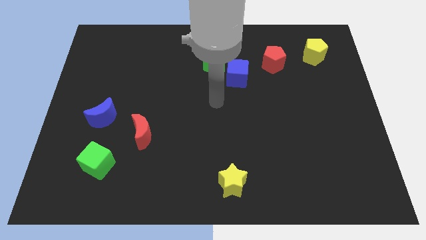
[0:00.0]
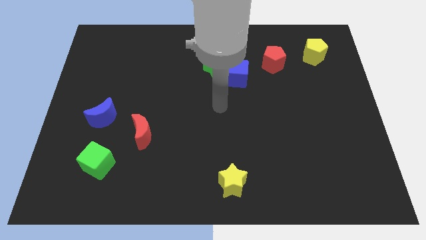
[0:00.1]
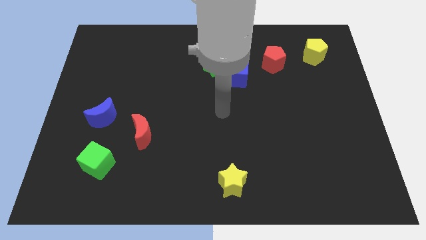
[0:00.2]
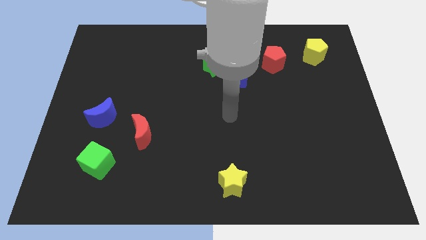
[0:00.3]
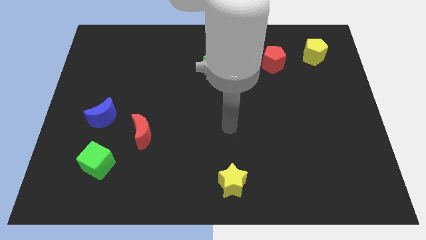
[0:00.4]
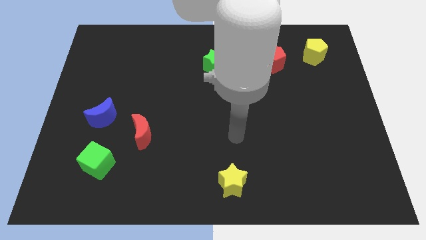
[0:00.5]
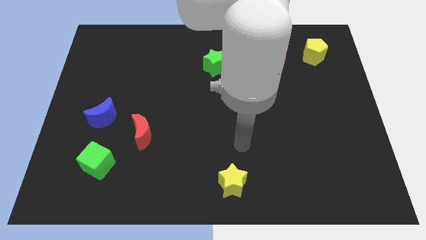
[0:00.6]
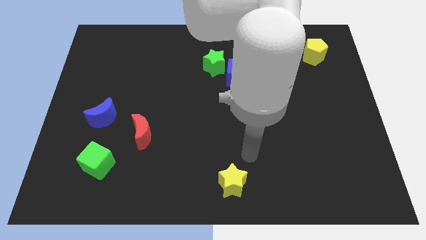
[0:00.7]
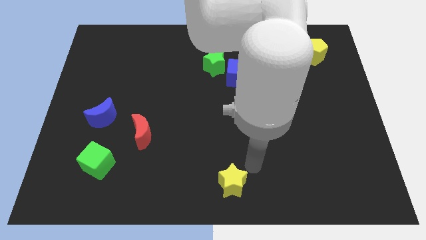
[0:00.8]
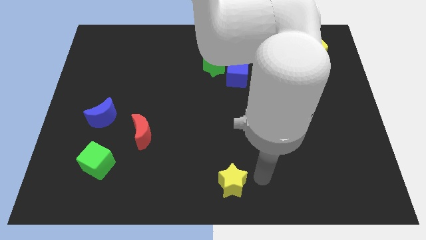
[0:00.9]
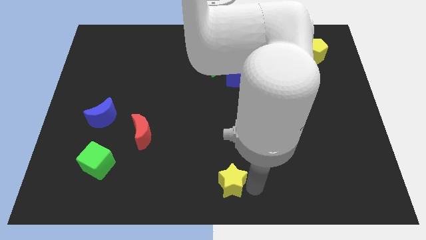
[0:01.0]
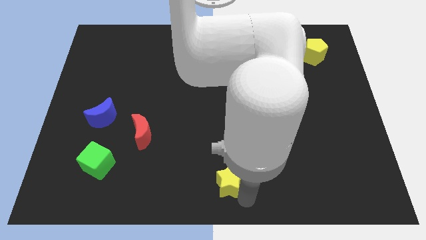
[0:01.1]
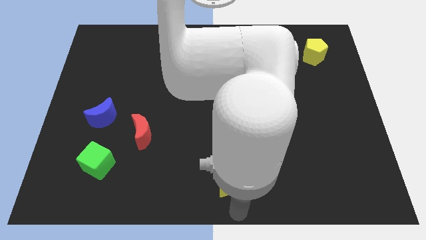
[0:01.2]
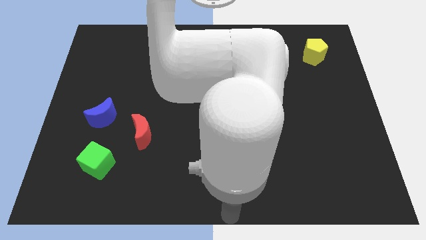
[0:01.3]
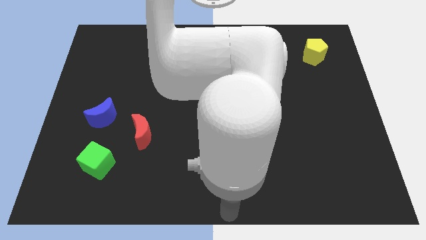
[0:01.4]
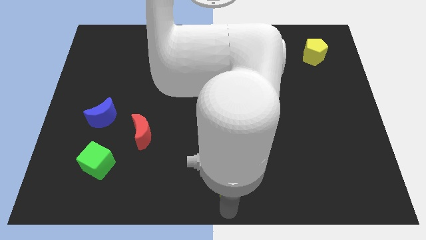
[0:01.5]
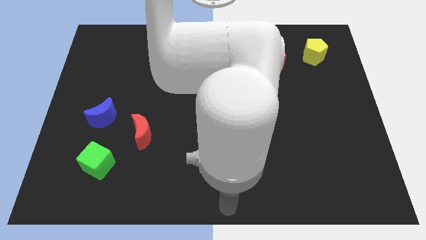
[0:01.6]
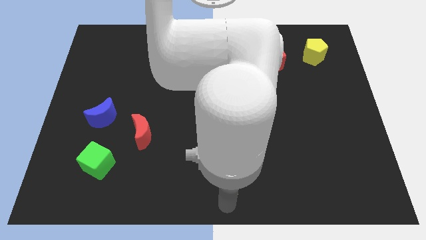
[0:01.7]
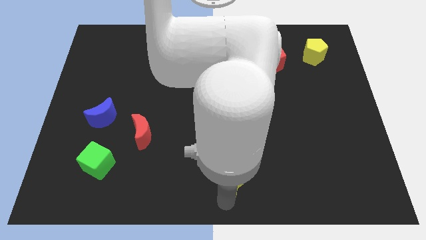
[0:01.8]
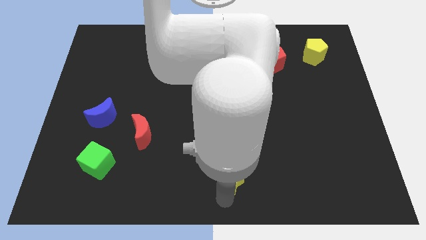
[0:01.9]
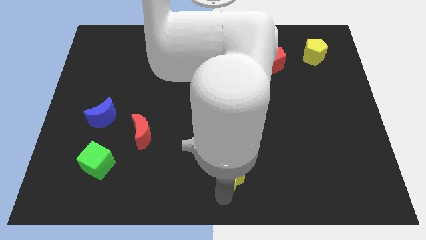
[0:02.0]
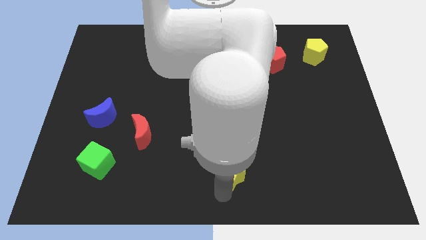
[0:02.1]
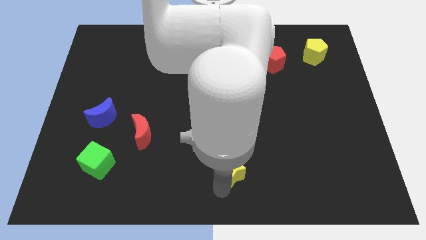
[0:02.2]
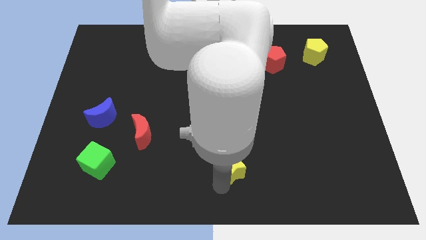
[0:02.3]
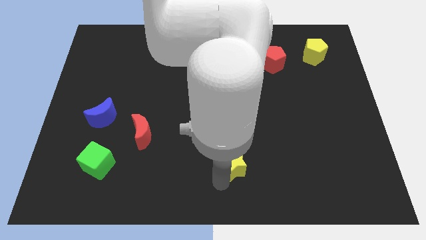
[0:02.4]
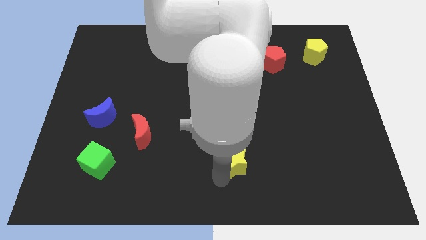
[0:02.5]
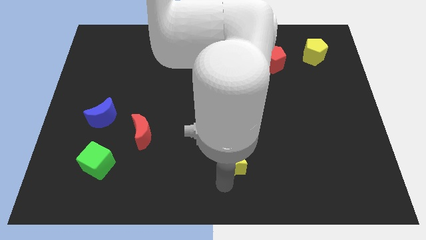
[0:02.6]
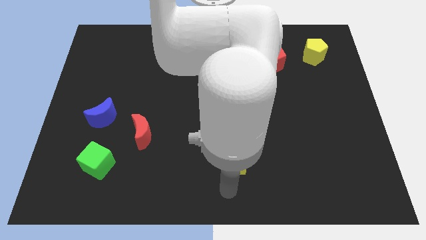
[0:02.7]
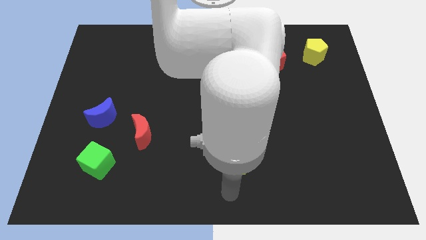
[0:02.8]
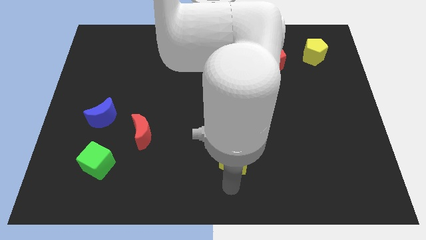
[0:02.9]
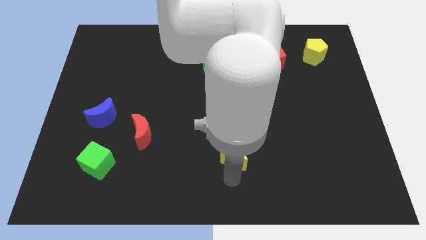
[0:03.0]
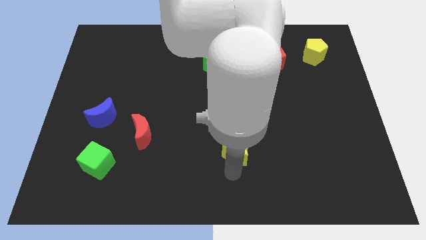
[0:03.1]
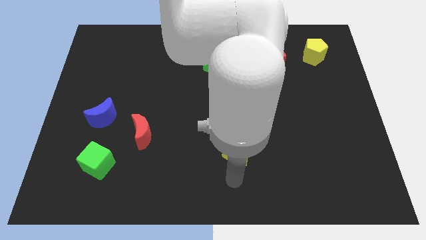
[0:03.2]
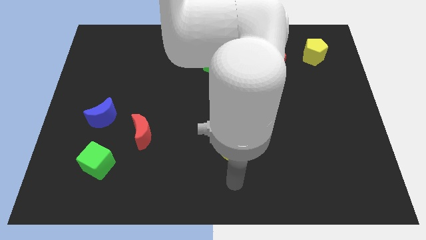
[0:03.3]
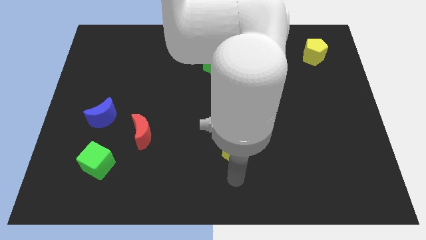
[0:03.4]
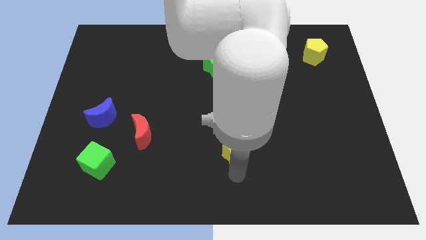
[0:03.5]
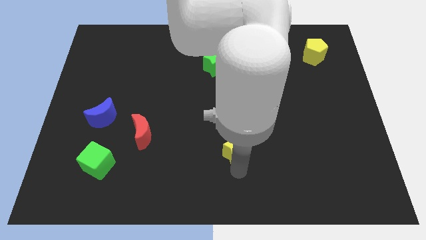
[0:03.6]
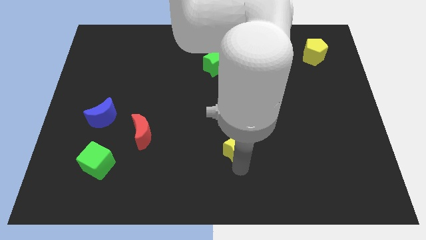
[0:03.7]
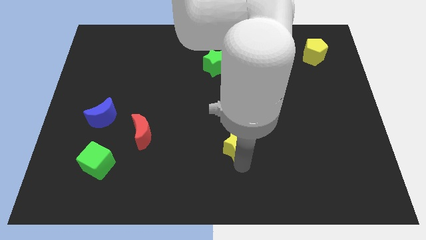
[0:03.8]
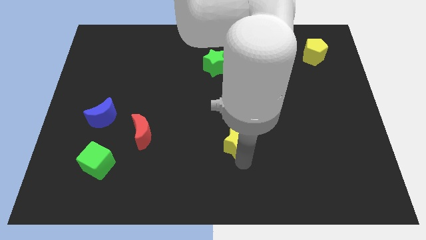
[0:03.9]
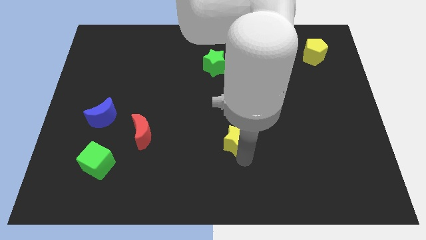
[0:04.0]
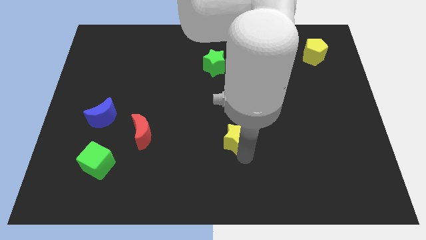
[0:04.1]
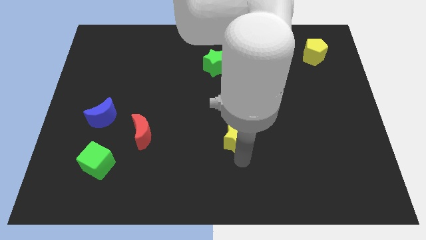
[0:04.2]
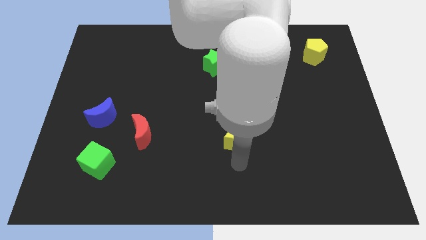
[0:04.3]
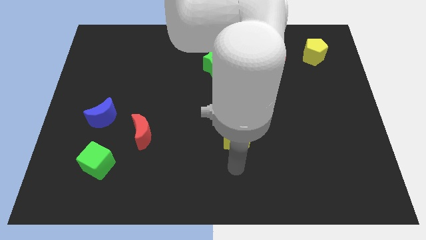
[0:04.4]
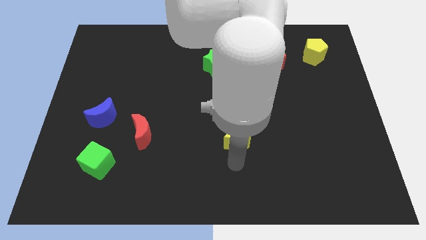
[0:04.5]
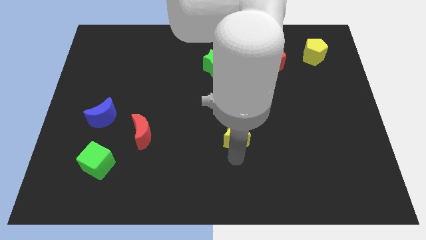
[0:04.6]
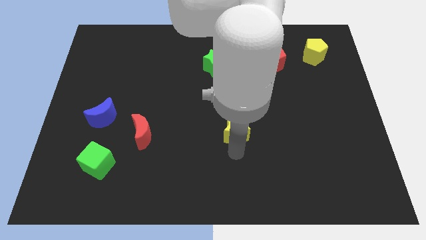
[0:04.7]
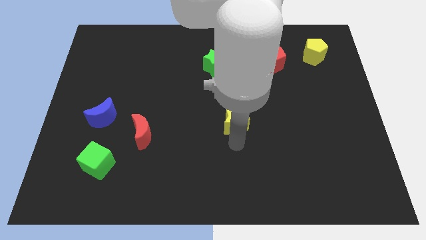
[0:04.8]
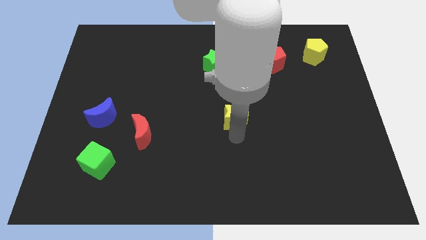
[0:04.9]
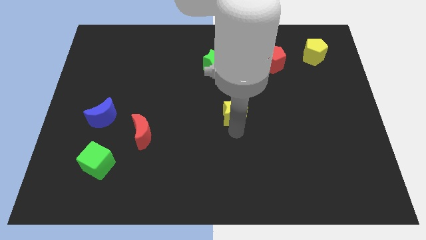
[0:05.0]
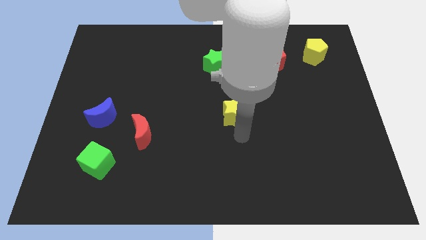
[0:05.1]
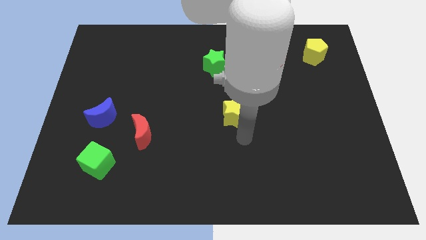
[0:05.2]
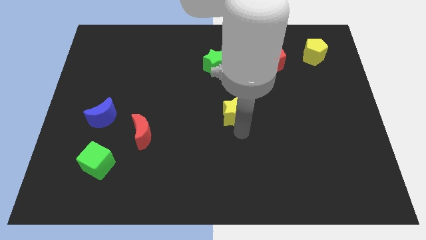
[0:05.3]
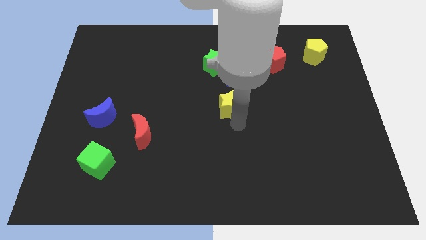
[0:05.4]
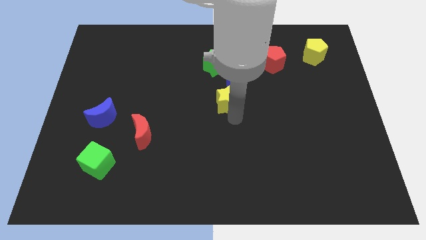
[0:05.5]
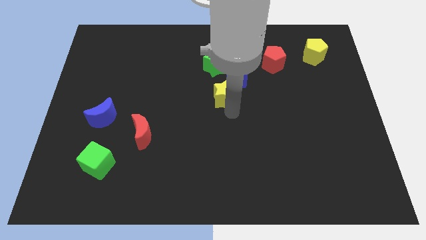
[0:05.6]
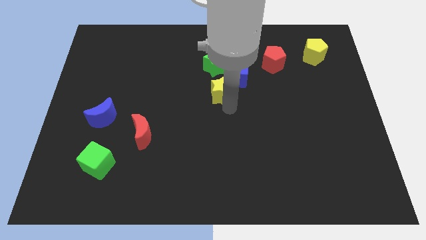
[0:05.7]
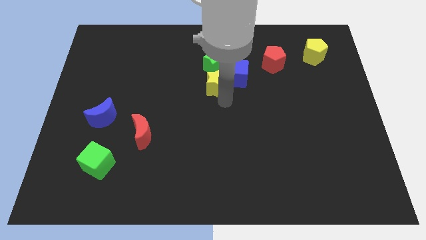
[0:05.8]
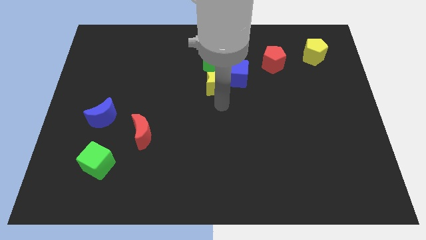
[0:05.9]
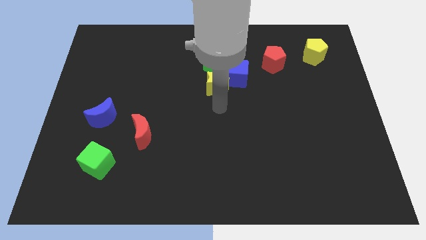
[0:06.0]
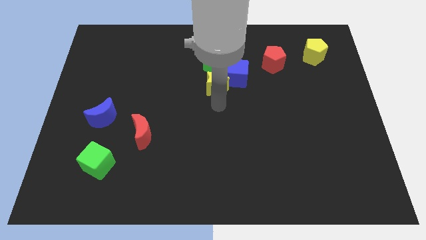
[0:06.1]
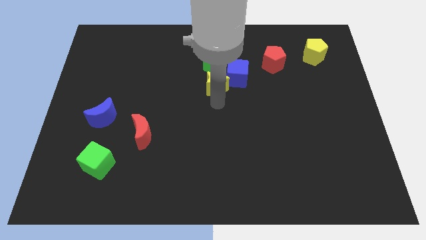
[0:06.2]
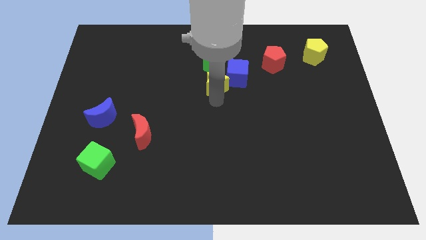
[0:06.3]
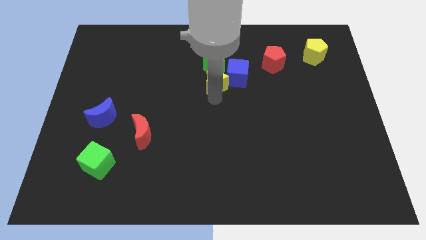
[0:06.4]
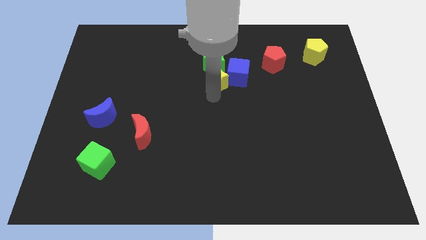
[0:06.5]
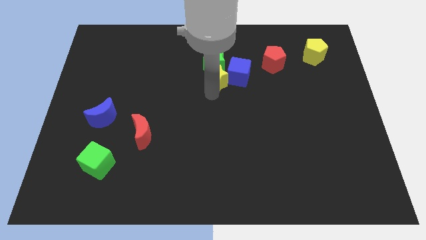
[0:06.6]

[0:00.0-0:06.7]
move the yellow star next to the green star

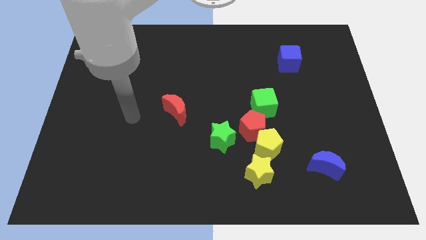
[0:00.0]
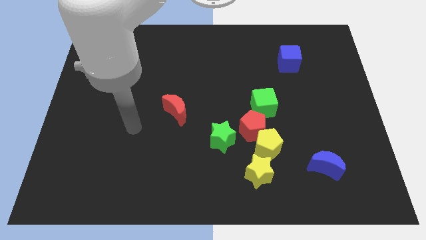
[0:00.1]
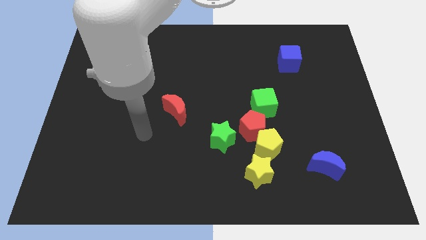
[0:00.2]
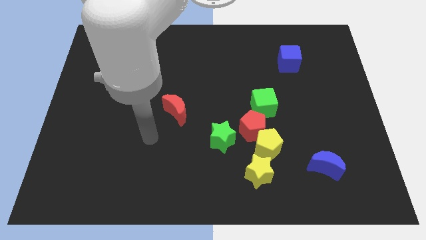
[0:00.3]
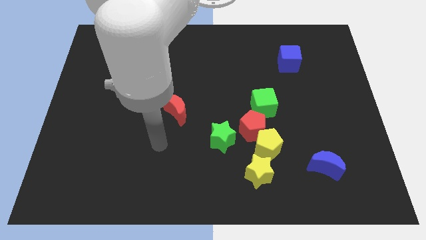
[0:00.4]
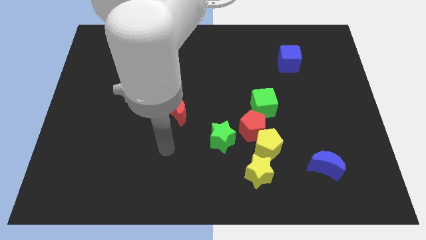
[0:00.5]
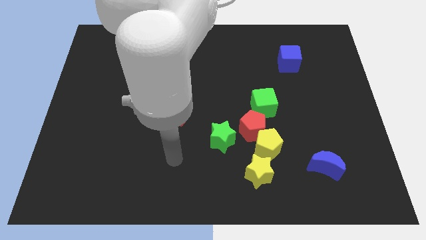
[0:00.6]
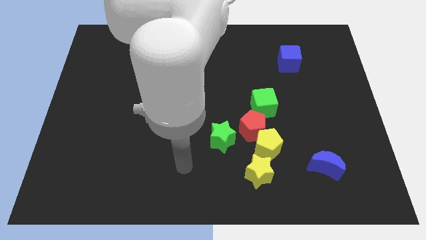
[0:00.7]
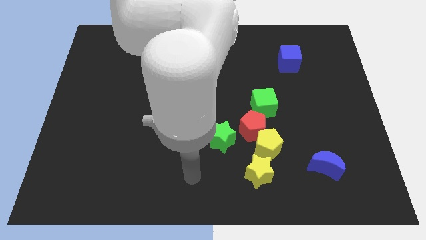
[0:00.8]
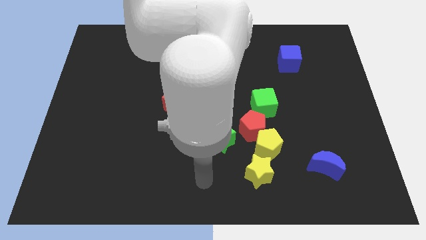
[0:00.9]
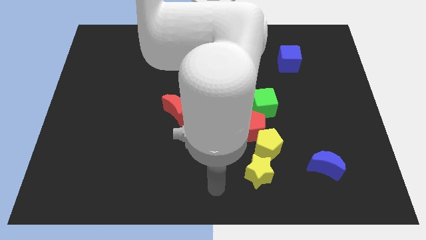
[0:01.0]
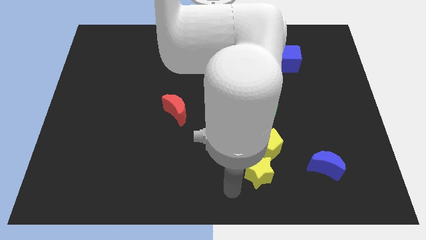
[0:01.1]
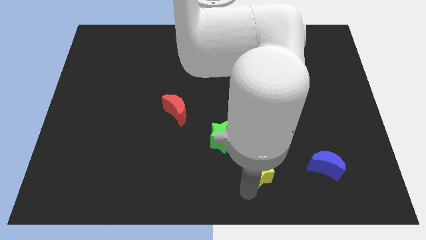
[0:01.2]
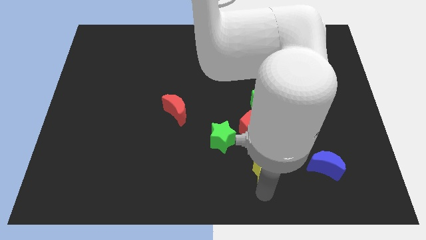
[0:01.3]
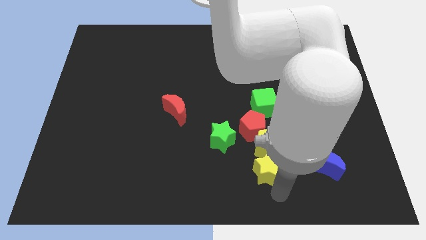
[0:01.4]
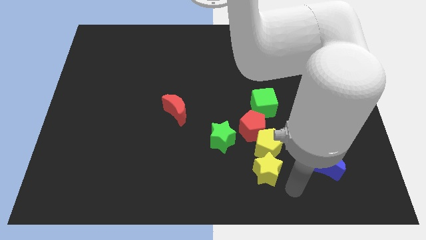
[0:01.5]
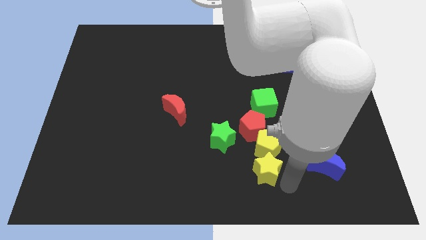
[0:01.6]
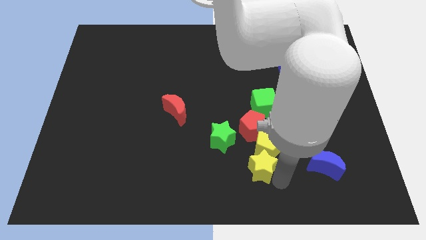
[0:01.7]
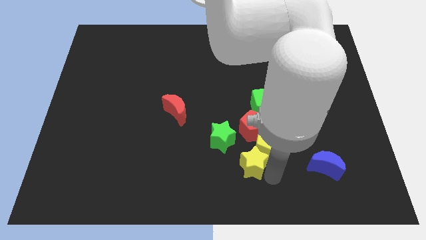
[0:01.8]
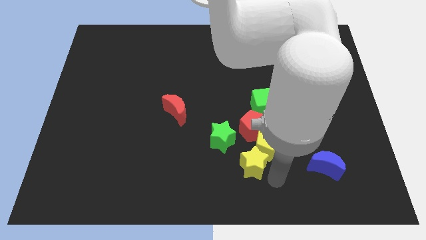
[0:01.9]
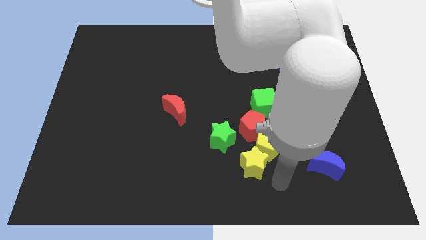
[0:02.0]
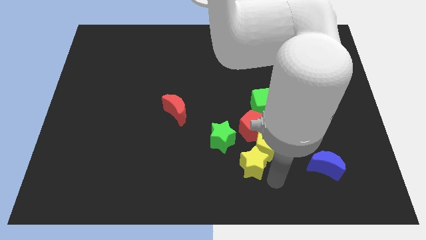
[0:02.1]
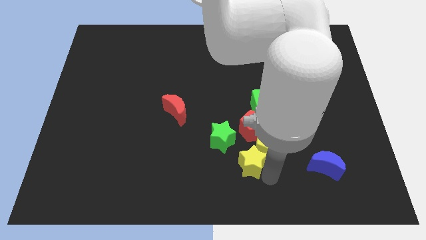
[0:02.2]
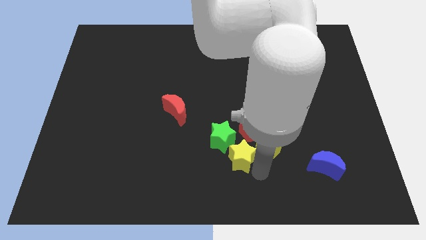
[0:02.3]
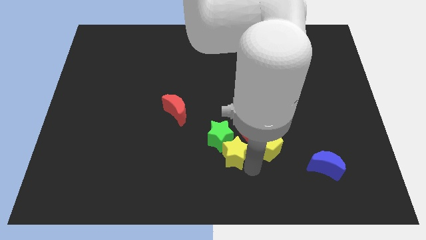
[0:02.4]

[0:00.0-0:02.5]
move the yellow star to the green star
